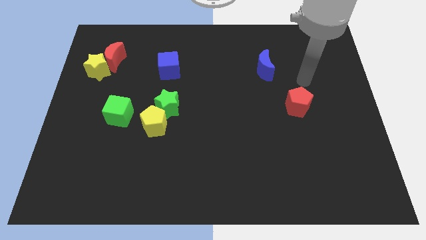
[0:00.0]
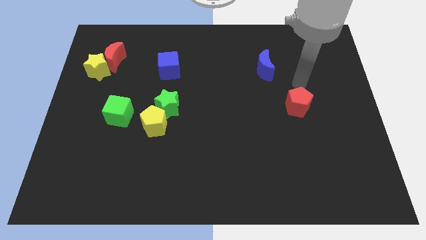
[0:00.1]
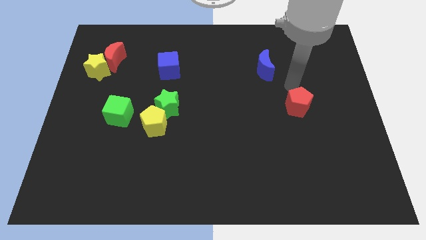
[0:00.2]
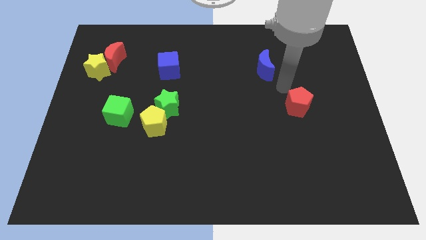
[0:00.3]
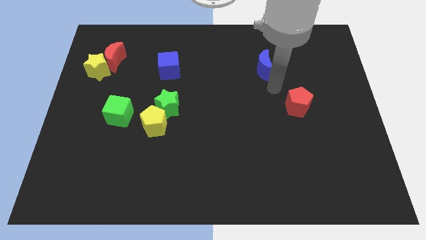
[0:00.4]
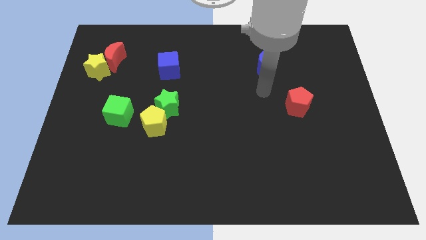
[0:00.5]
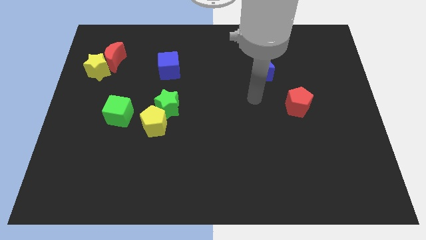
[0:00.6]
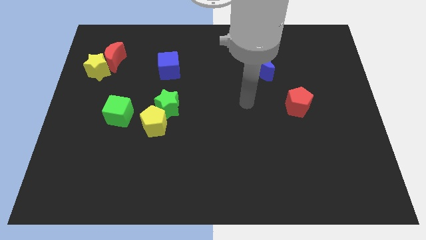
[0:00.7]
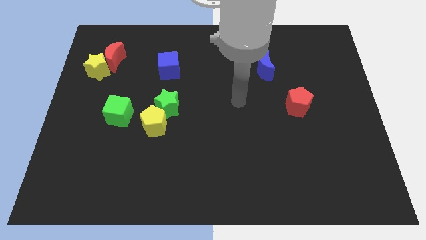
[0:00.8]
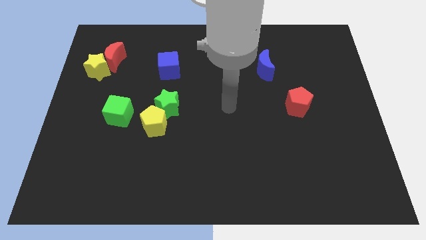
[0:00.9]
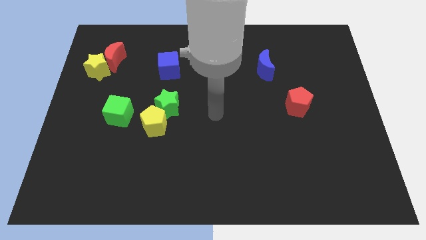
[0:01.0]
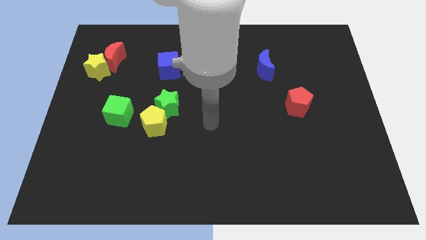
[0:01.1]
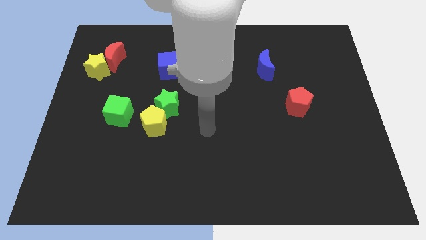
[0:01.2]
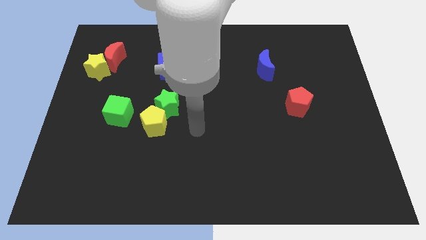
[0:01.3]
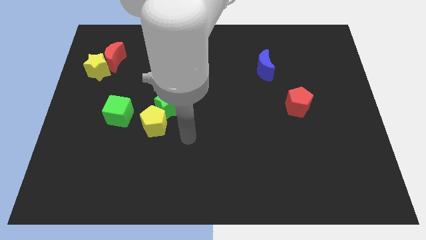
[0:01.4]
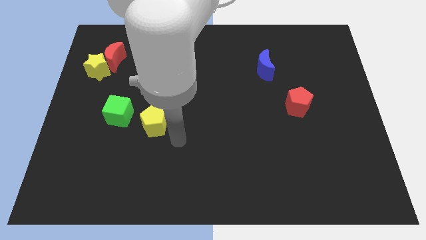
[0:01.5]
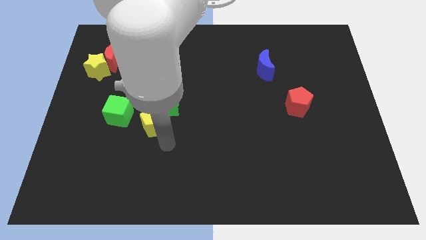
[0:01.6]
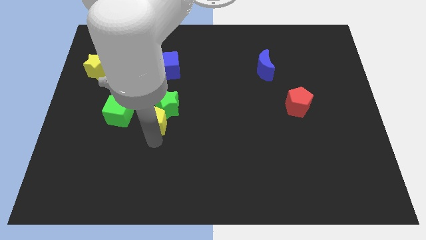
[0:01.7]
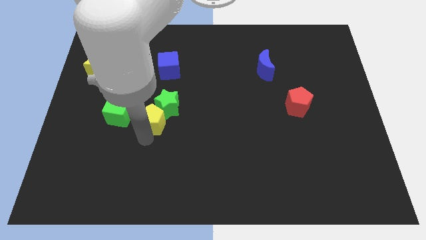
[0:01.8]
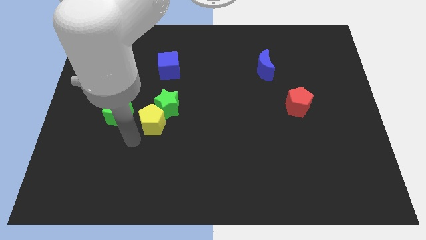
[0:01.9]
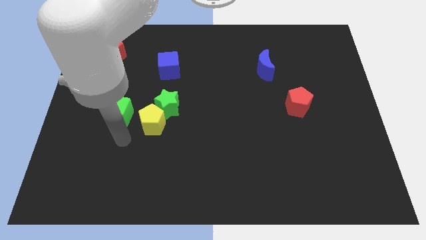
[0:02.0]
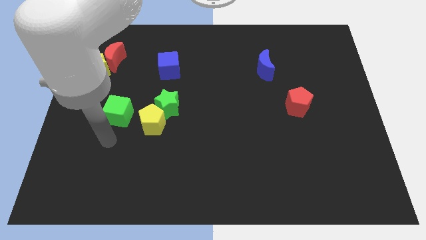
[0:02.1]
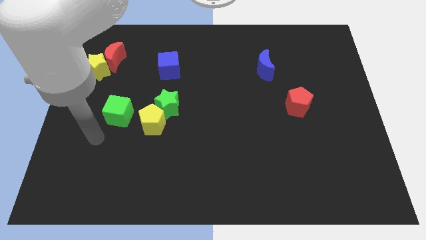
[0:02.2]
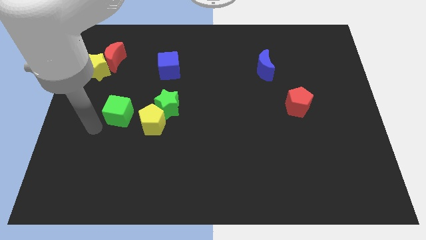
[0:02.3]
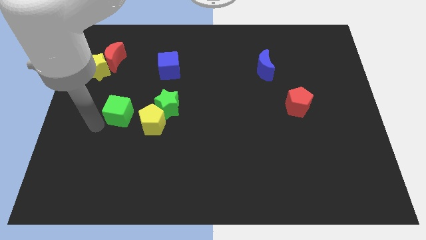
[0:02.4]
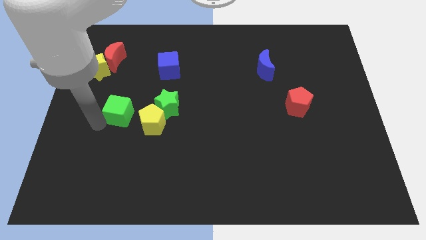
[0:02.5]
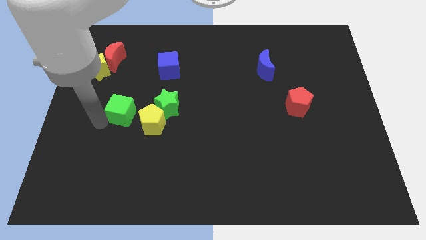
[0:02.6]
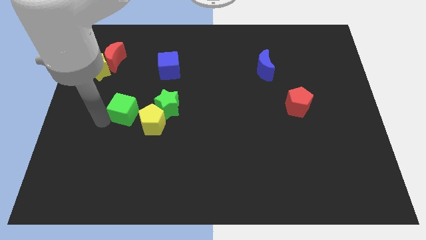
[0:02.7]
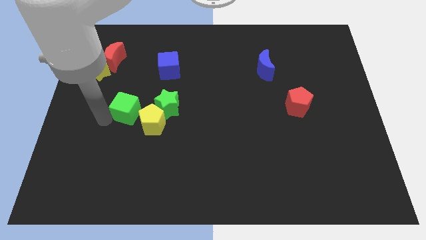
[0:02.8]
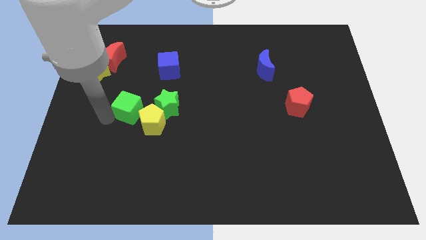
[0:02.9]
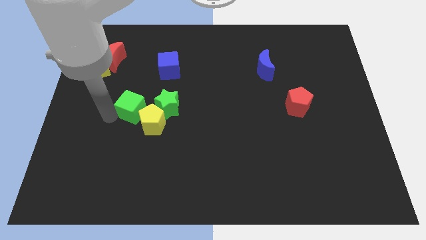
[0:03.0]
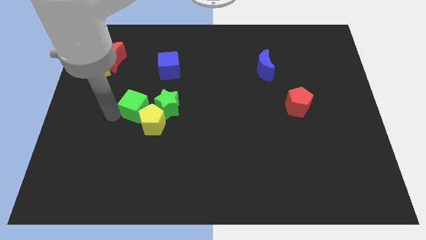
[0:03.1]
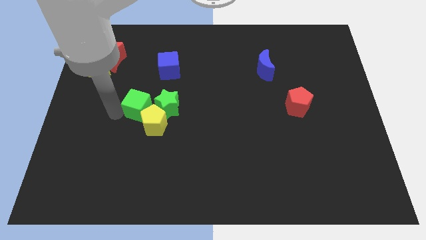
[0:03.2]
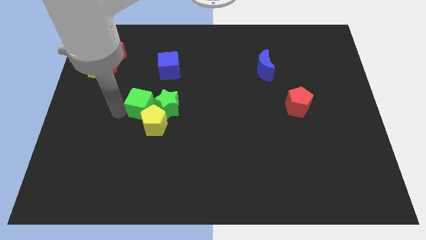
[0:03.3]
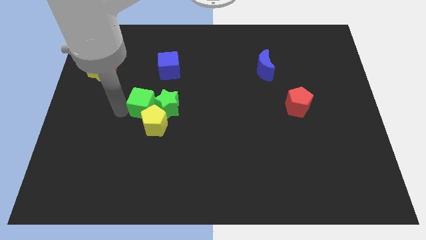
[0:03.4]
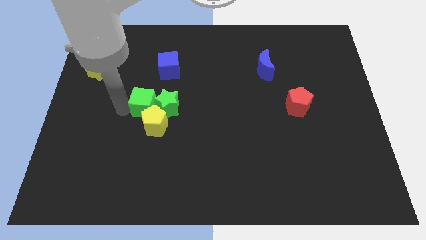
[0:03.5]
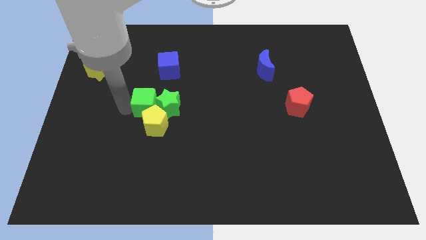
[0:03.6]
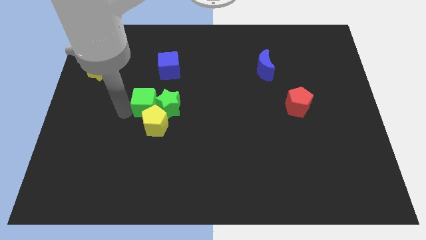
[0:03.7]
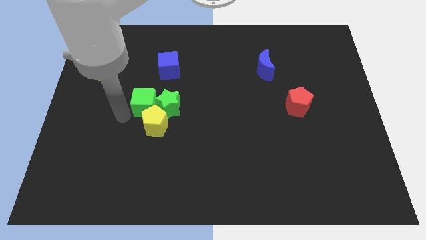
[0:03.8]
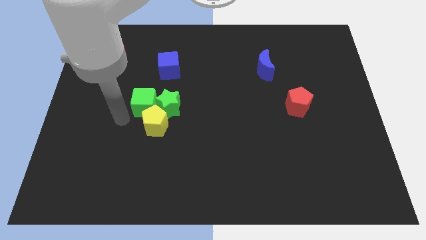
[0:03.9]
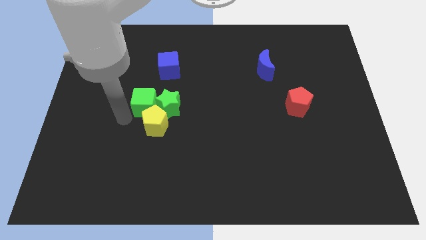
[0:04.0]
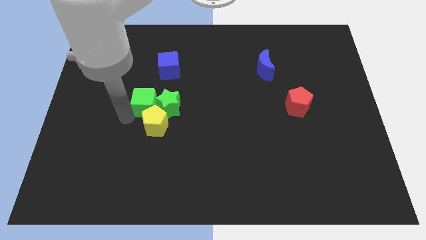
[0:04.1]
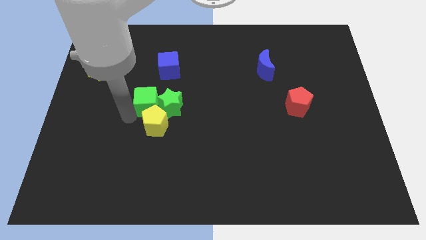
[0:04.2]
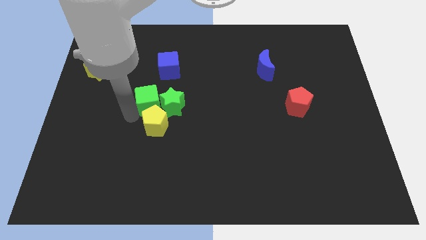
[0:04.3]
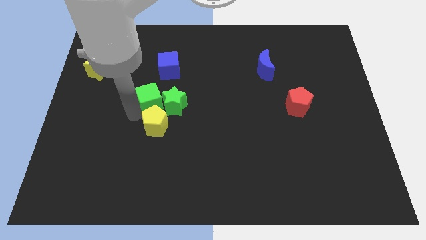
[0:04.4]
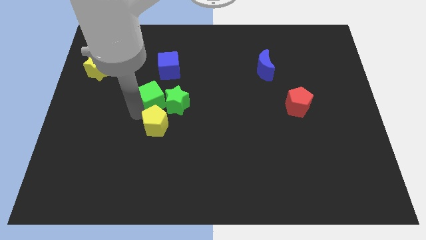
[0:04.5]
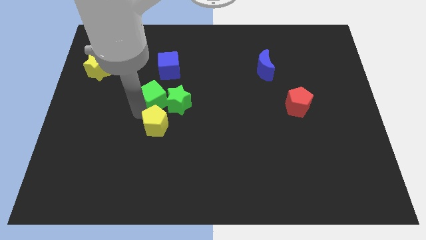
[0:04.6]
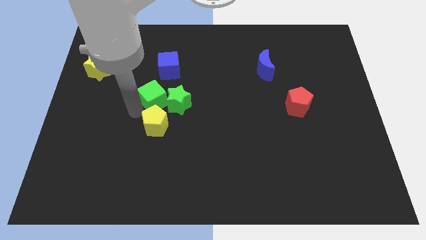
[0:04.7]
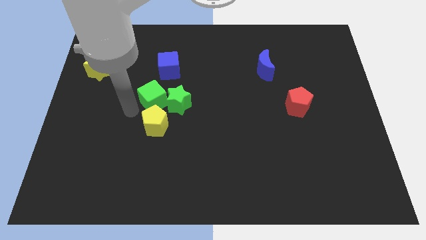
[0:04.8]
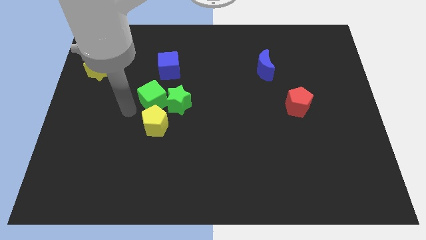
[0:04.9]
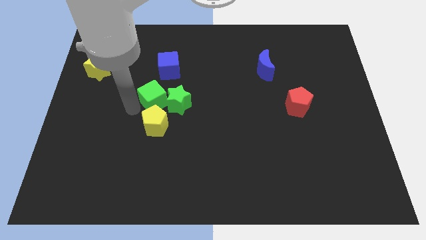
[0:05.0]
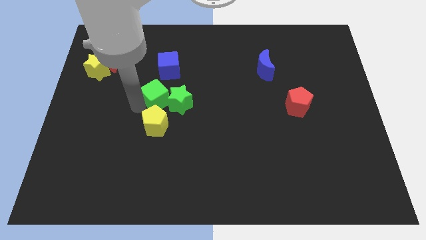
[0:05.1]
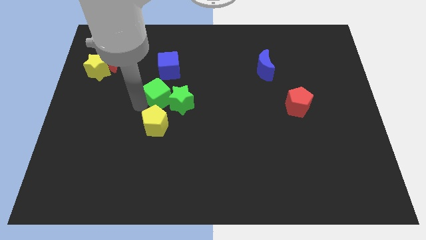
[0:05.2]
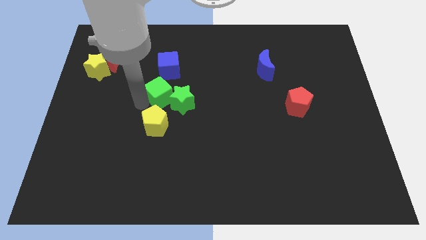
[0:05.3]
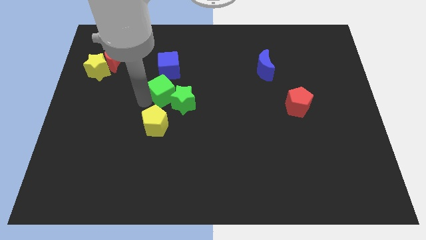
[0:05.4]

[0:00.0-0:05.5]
move the green cube to the center of the board

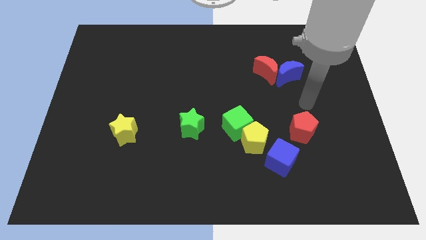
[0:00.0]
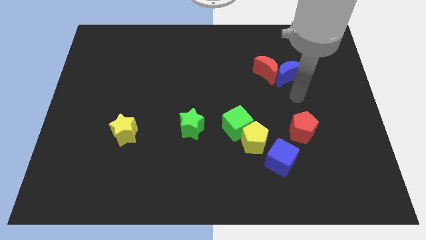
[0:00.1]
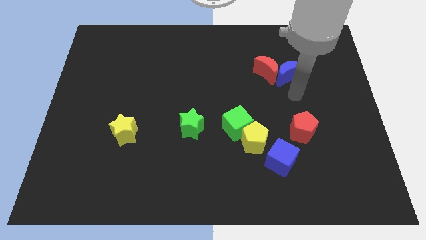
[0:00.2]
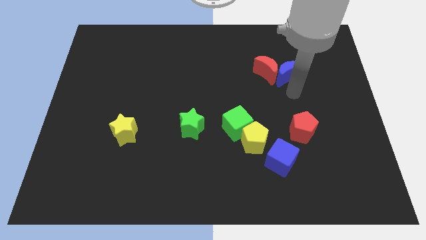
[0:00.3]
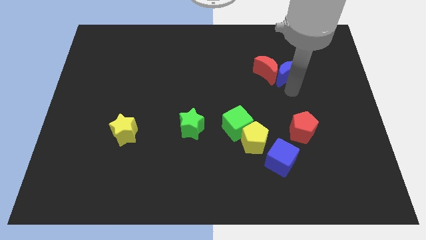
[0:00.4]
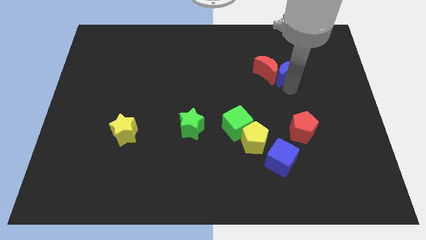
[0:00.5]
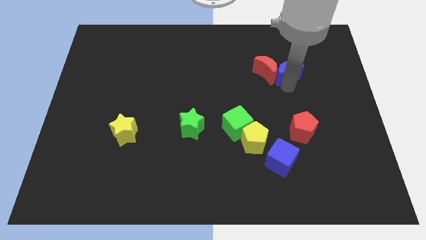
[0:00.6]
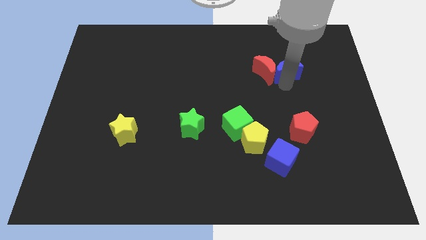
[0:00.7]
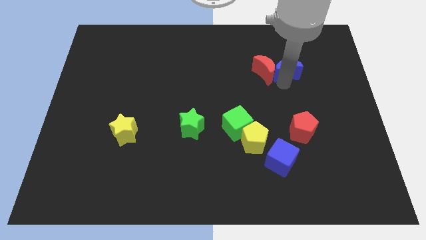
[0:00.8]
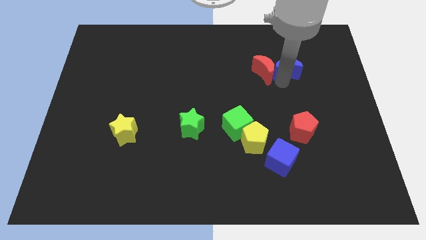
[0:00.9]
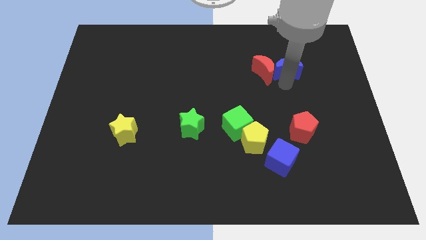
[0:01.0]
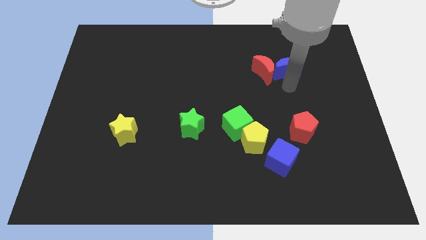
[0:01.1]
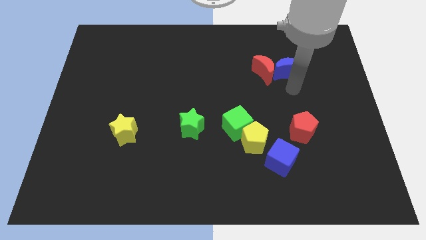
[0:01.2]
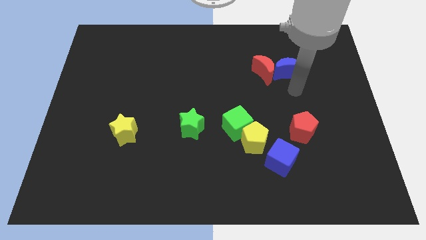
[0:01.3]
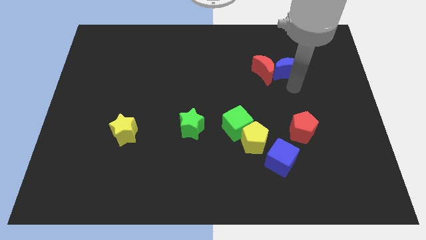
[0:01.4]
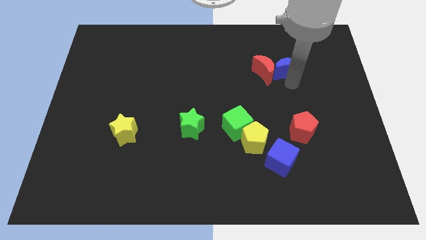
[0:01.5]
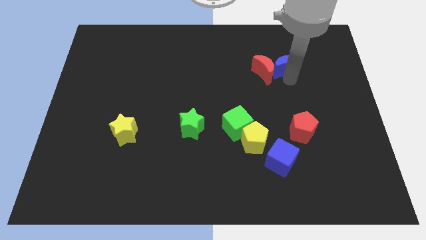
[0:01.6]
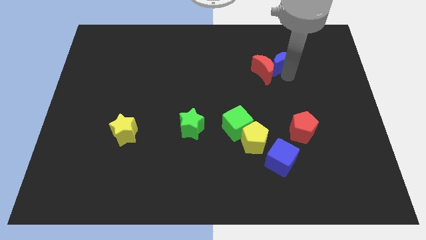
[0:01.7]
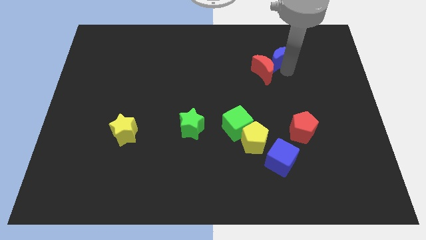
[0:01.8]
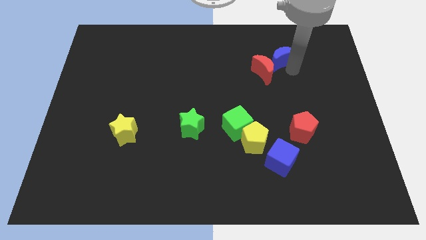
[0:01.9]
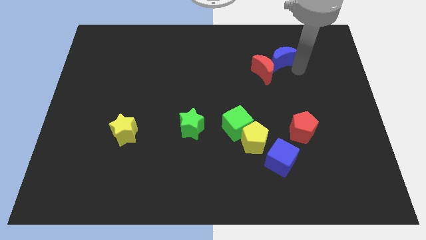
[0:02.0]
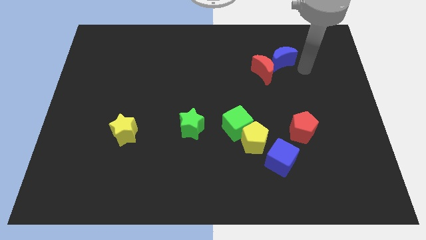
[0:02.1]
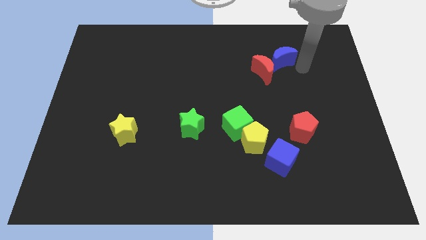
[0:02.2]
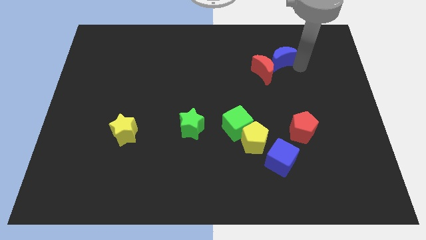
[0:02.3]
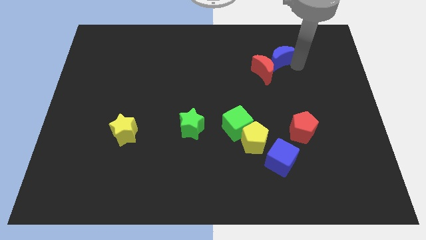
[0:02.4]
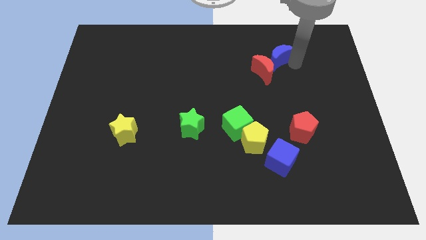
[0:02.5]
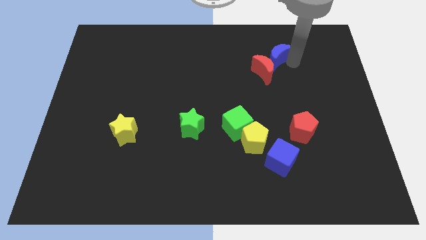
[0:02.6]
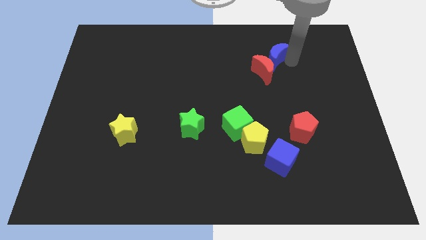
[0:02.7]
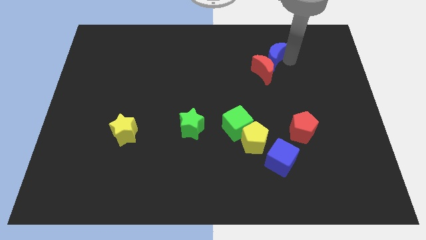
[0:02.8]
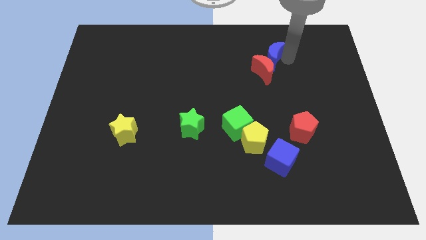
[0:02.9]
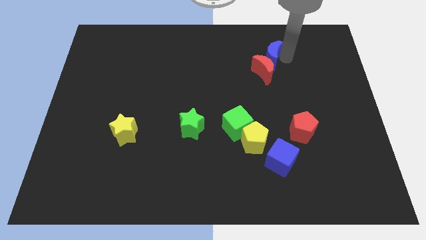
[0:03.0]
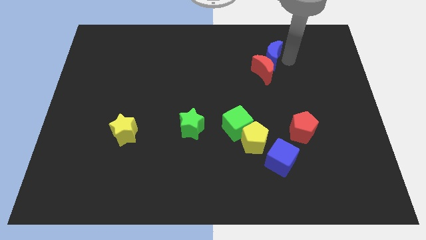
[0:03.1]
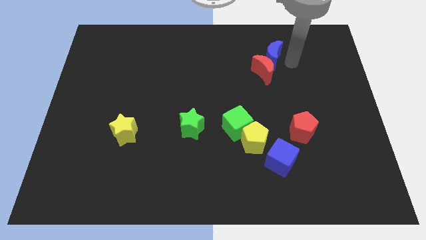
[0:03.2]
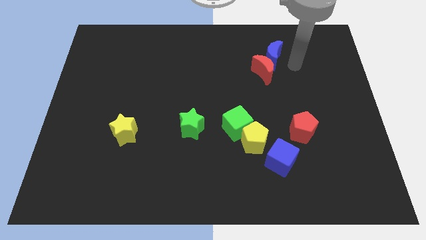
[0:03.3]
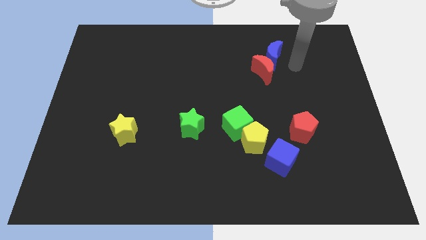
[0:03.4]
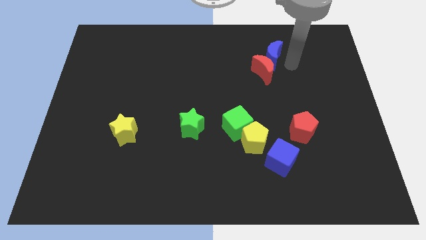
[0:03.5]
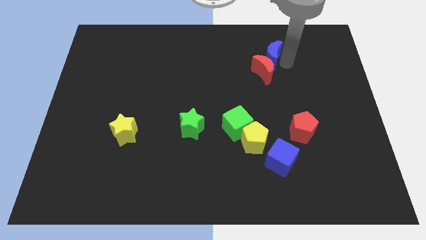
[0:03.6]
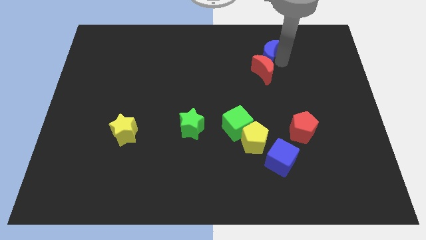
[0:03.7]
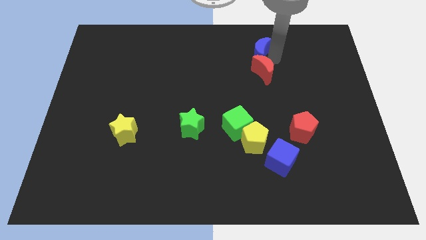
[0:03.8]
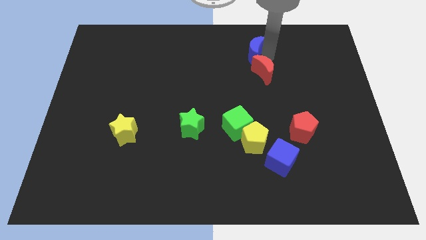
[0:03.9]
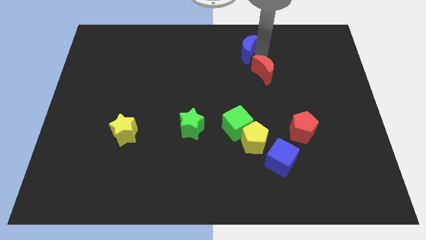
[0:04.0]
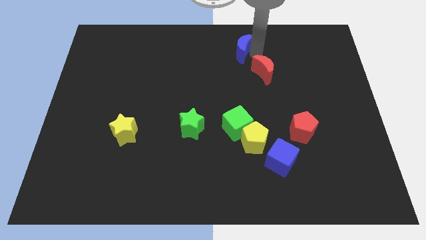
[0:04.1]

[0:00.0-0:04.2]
put the blue moon to the top
